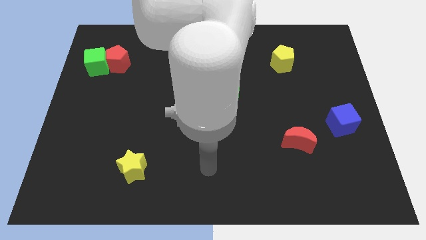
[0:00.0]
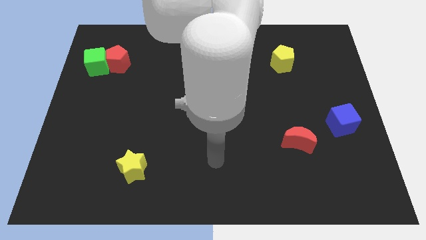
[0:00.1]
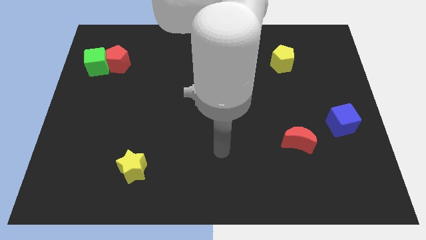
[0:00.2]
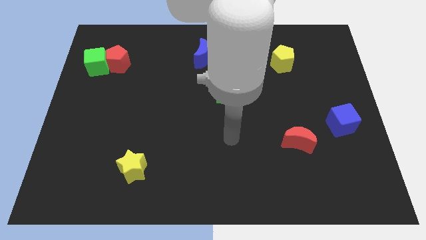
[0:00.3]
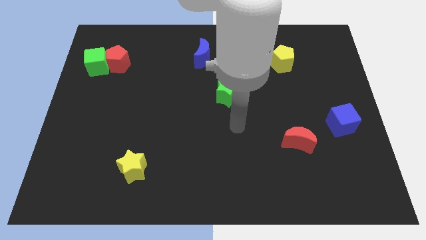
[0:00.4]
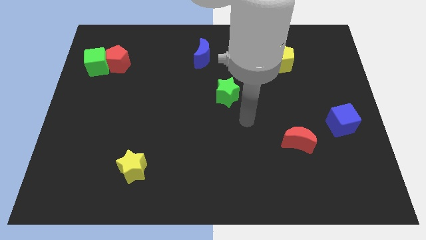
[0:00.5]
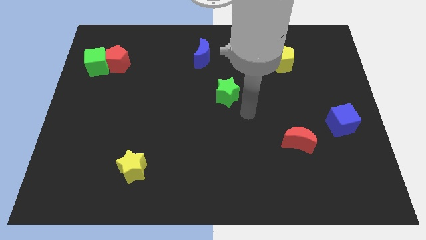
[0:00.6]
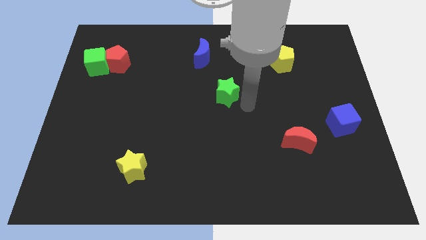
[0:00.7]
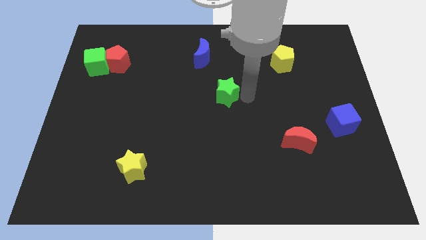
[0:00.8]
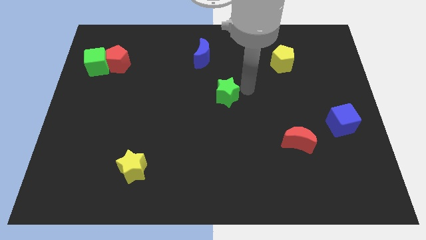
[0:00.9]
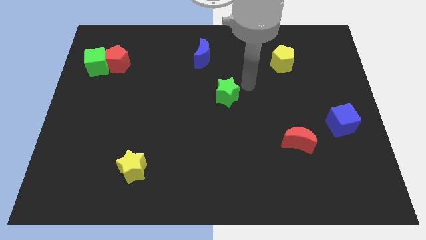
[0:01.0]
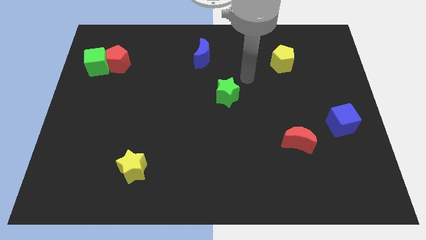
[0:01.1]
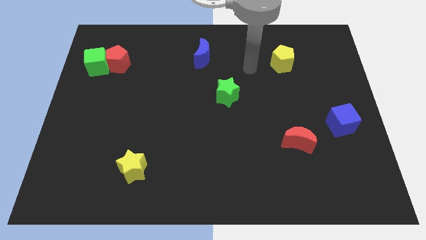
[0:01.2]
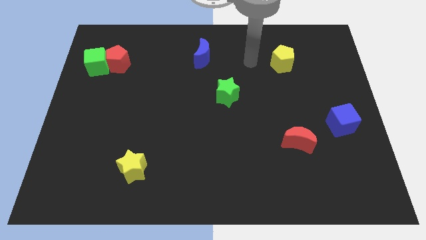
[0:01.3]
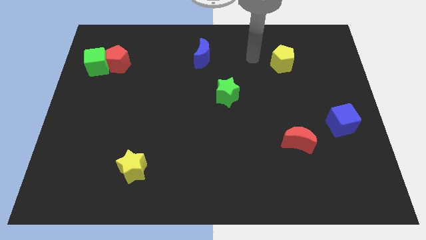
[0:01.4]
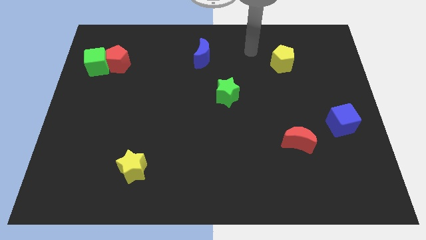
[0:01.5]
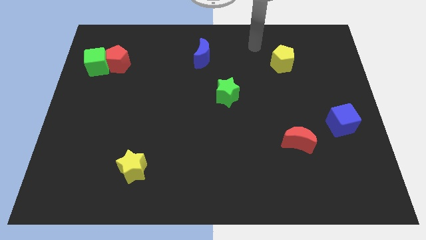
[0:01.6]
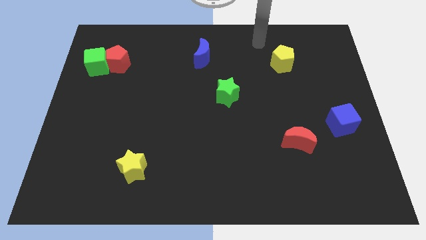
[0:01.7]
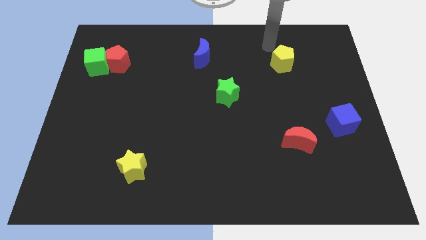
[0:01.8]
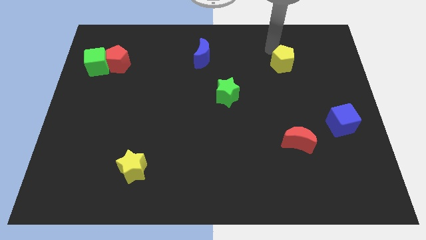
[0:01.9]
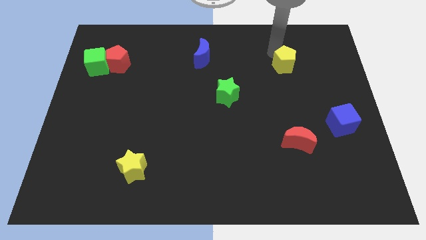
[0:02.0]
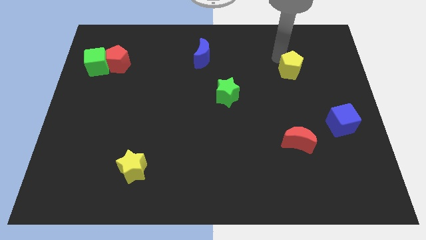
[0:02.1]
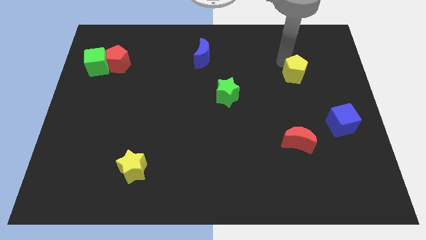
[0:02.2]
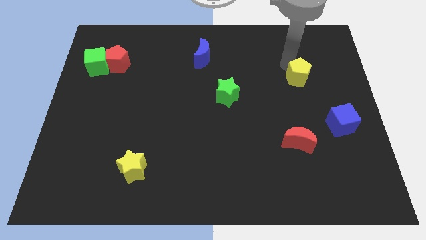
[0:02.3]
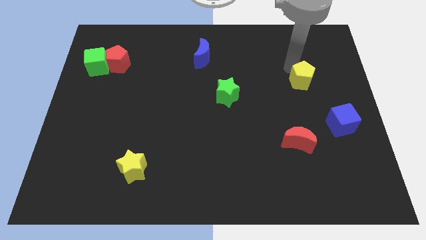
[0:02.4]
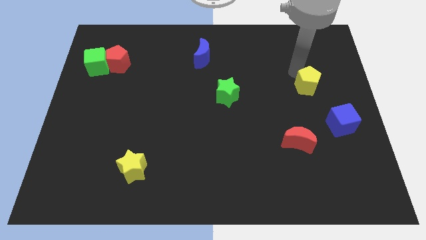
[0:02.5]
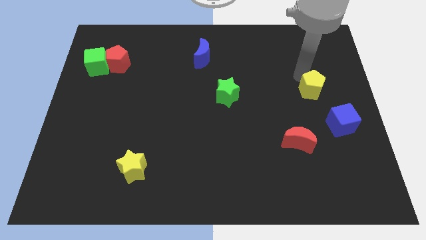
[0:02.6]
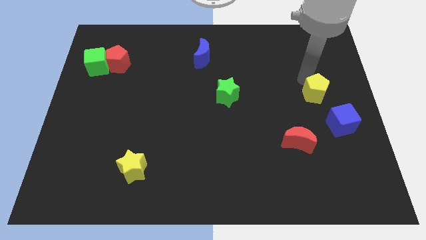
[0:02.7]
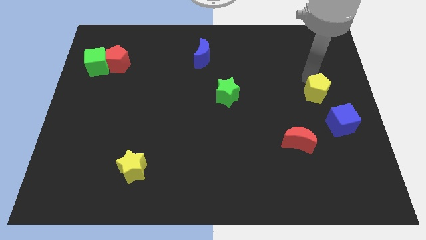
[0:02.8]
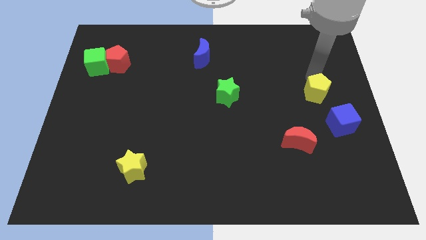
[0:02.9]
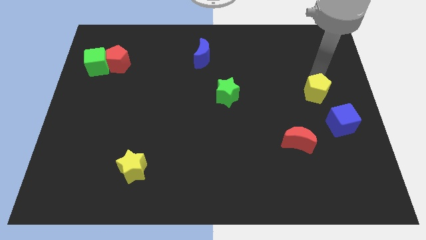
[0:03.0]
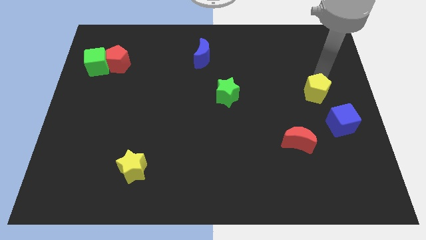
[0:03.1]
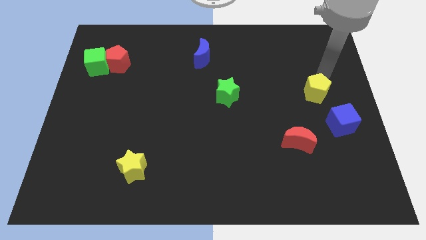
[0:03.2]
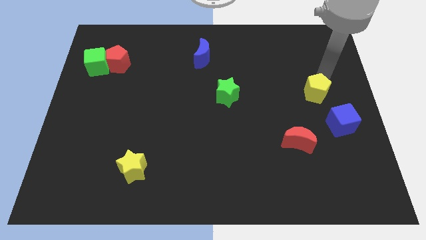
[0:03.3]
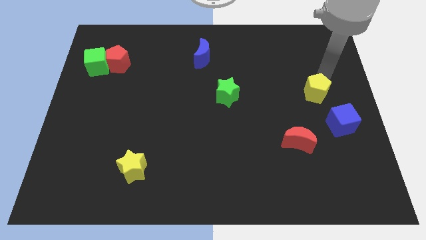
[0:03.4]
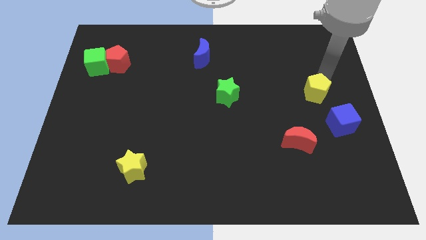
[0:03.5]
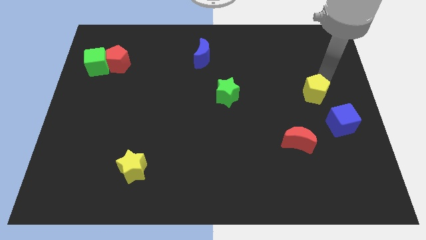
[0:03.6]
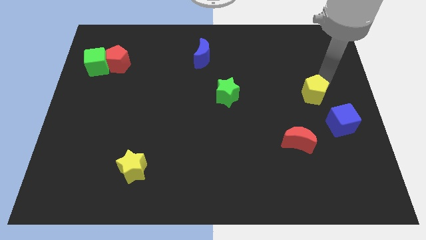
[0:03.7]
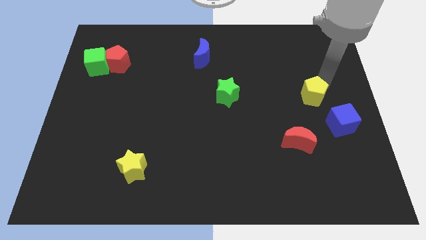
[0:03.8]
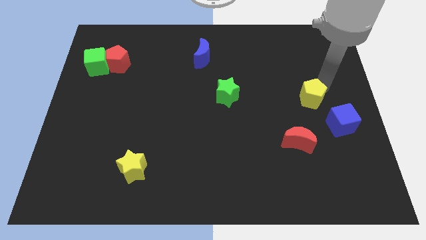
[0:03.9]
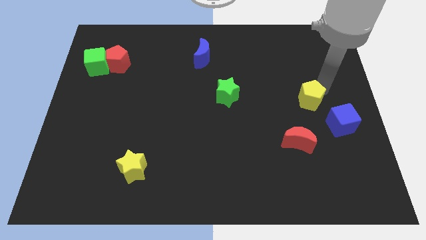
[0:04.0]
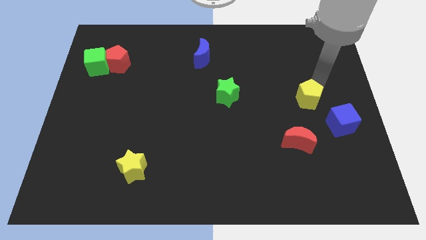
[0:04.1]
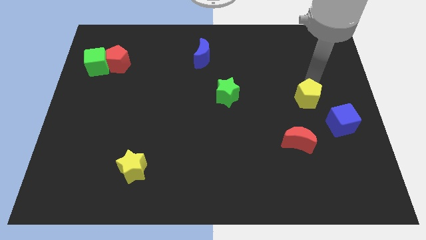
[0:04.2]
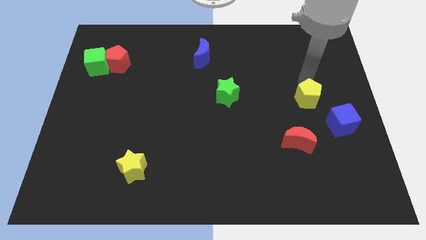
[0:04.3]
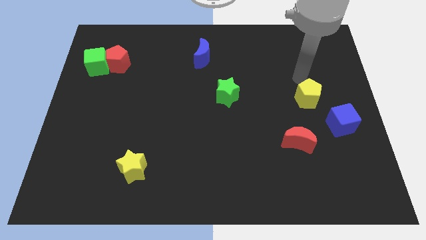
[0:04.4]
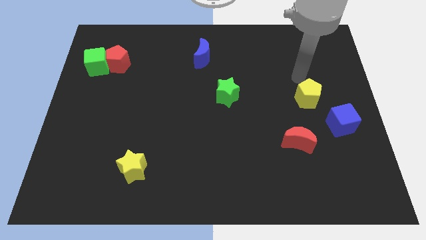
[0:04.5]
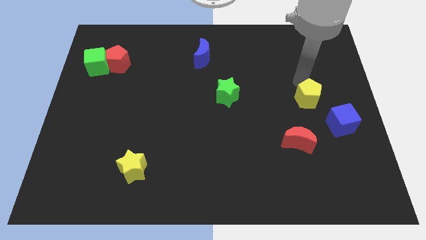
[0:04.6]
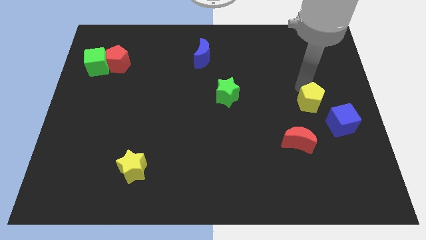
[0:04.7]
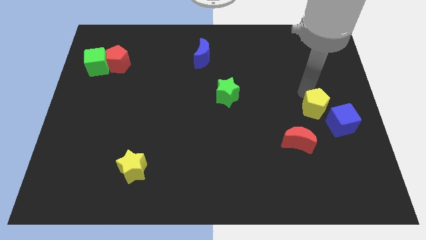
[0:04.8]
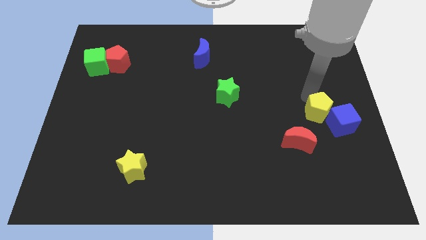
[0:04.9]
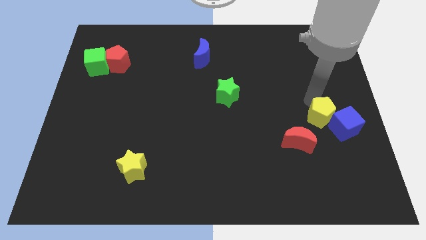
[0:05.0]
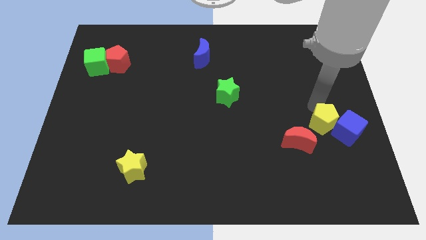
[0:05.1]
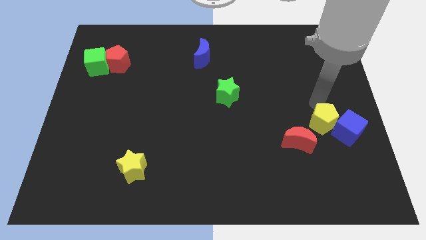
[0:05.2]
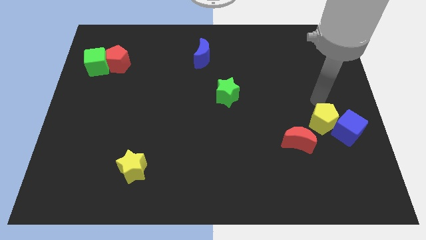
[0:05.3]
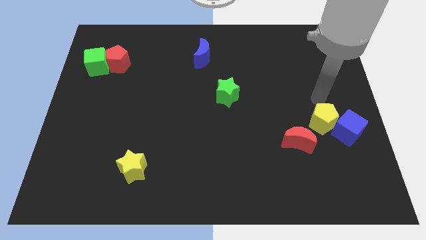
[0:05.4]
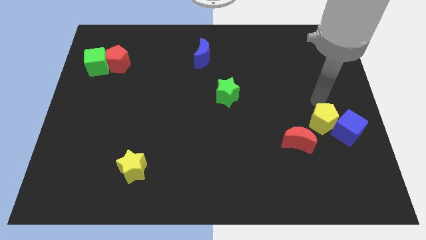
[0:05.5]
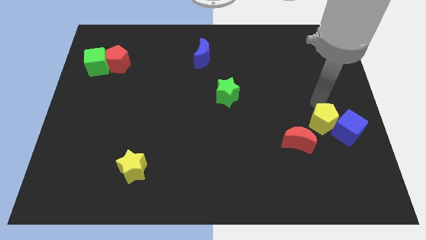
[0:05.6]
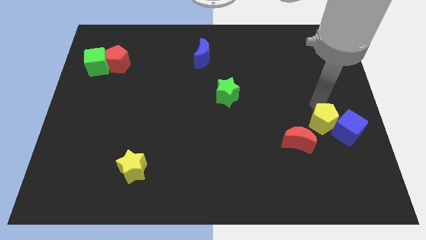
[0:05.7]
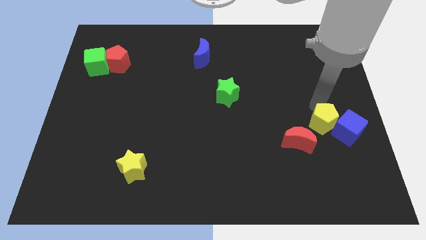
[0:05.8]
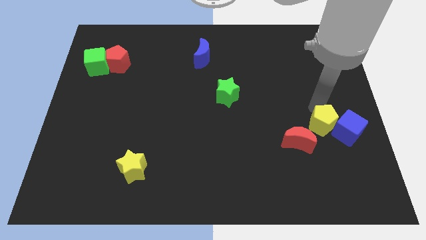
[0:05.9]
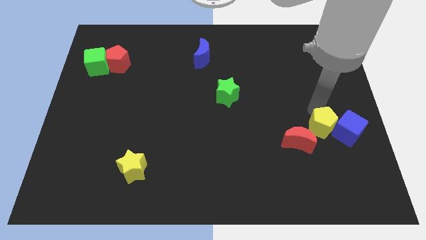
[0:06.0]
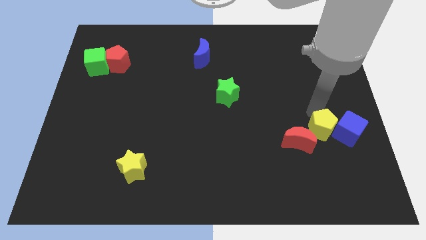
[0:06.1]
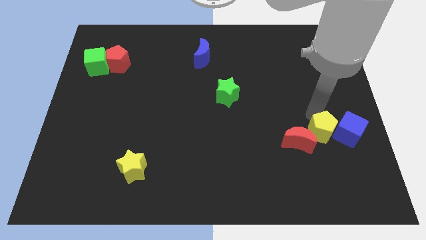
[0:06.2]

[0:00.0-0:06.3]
push the yellow pentagon down

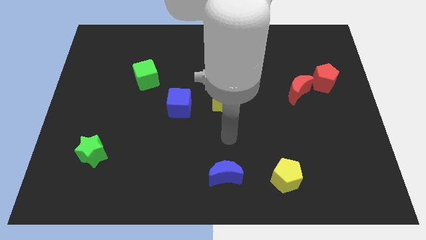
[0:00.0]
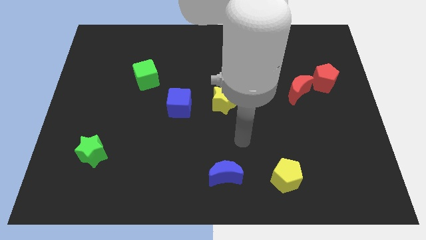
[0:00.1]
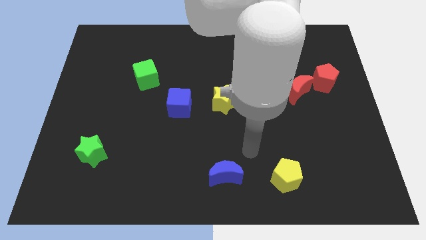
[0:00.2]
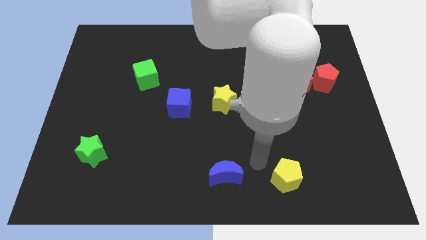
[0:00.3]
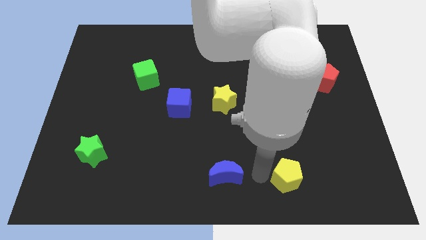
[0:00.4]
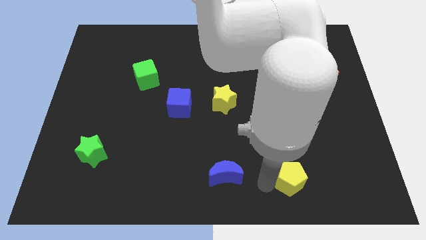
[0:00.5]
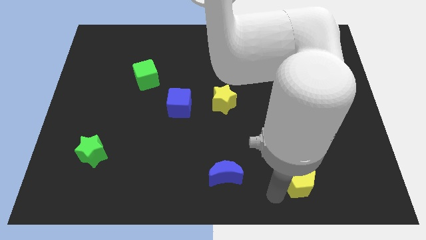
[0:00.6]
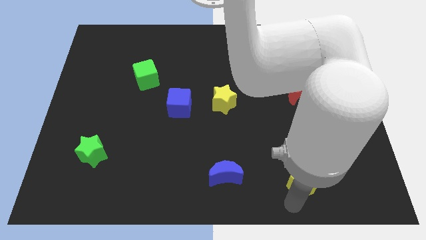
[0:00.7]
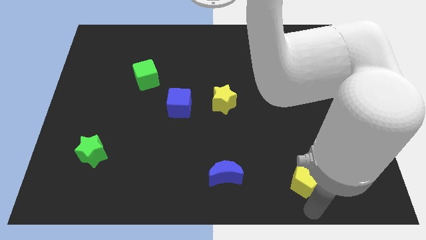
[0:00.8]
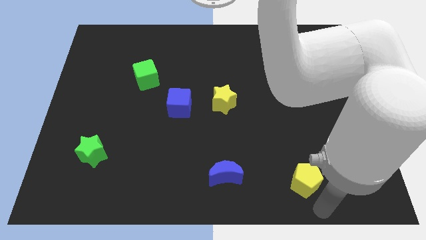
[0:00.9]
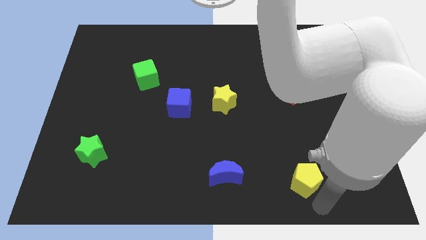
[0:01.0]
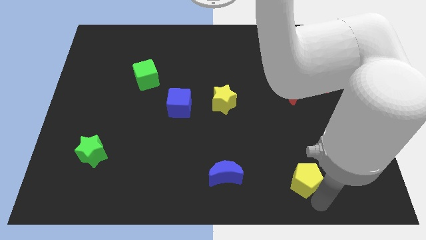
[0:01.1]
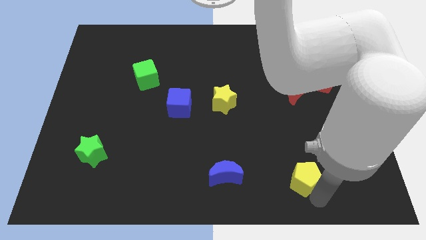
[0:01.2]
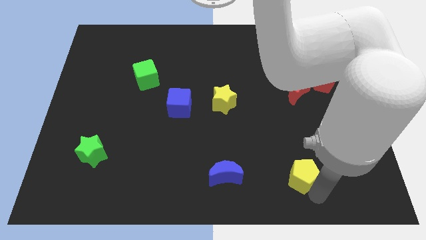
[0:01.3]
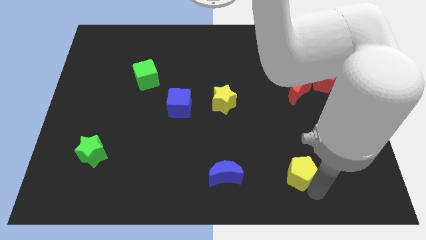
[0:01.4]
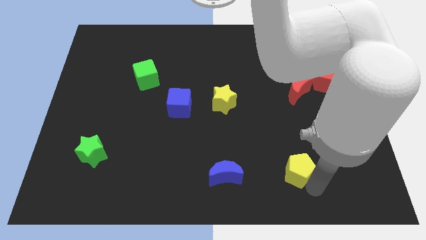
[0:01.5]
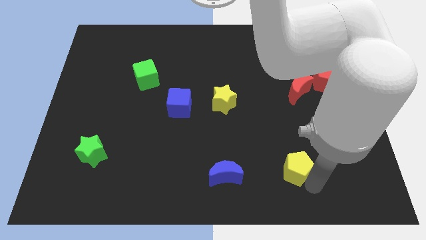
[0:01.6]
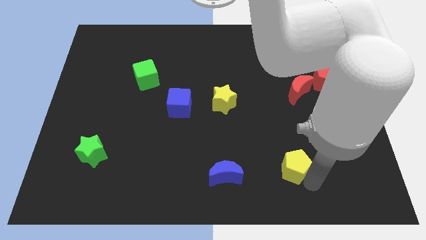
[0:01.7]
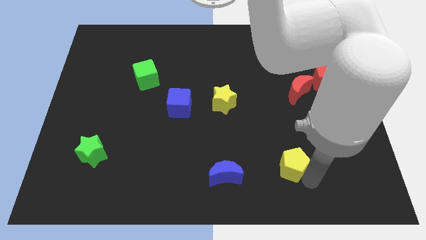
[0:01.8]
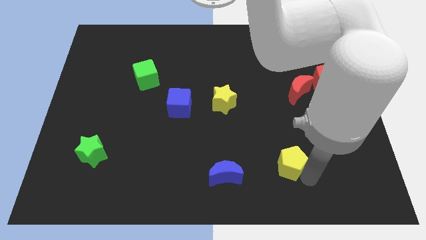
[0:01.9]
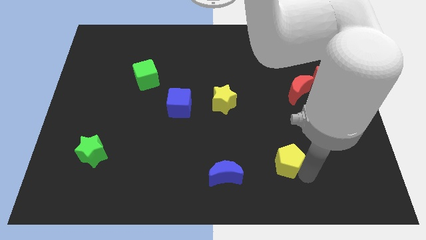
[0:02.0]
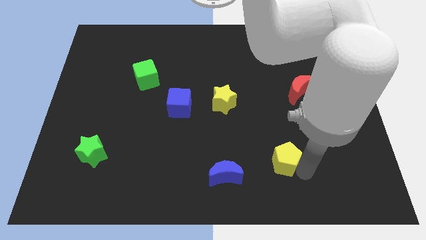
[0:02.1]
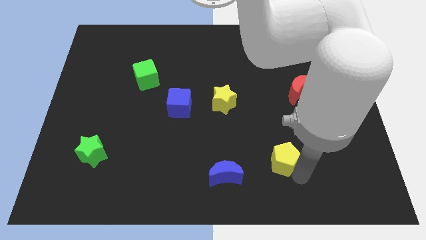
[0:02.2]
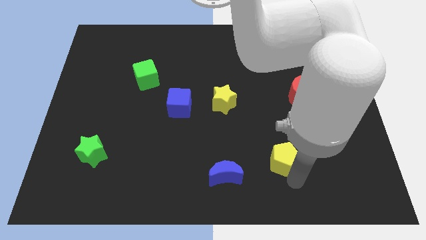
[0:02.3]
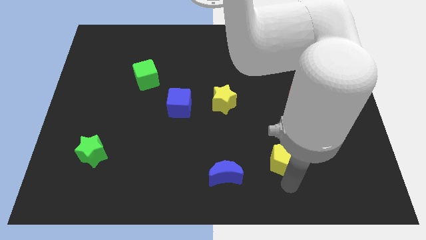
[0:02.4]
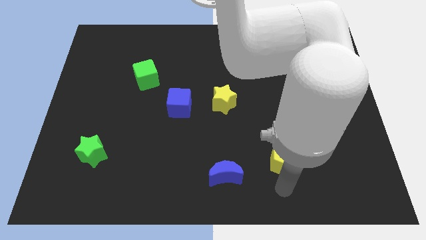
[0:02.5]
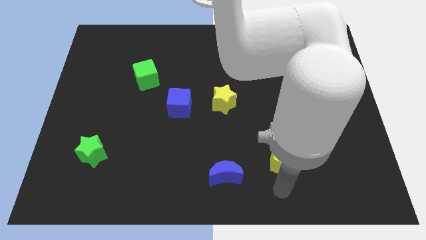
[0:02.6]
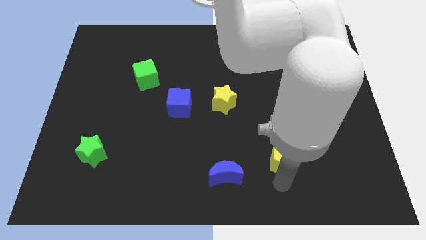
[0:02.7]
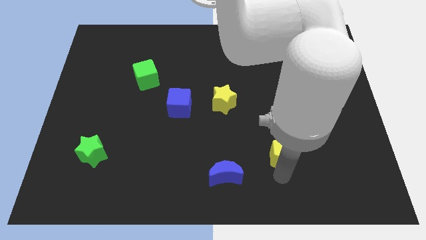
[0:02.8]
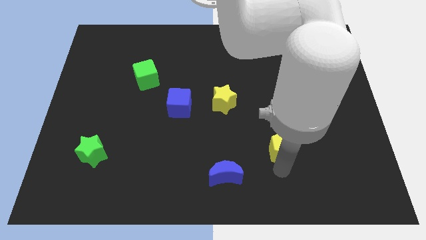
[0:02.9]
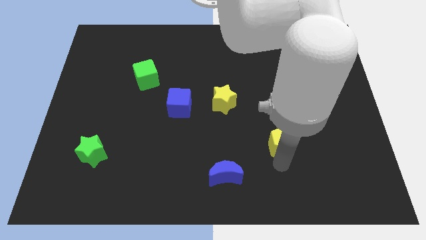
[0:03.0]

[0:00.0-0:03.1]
move the yellow pentagon upwards somewhat
